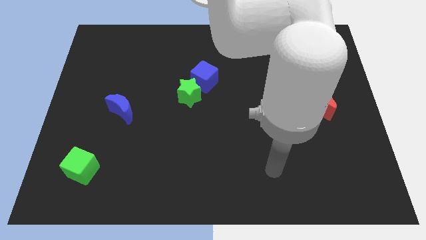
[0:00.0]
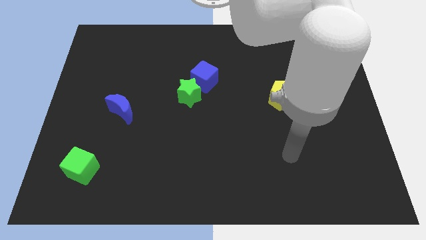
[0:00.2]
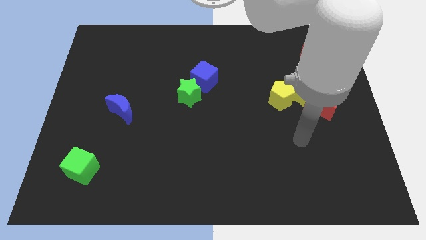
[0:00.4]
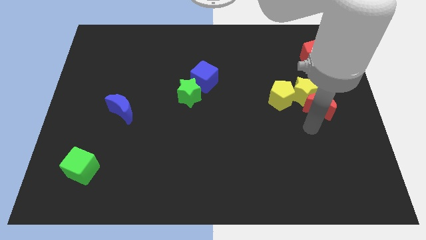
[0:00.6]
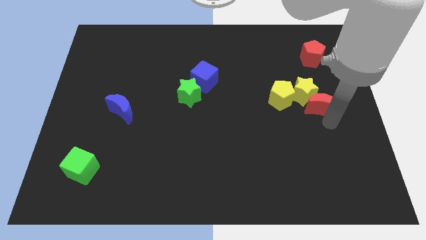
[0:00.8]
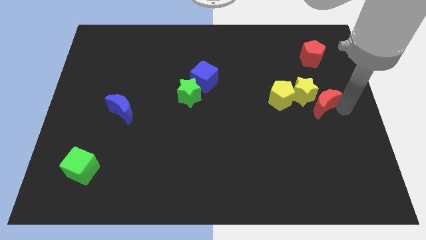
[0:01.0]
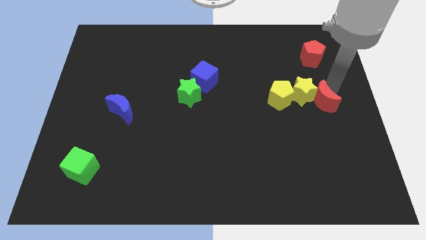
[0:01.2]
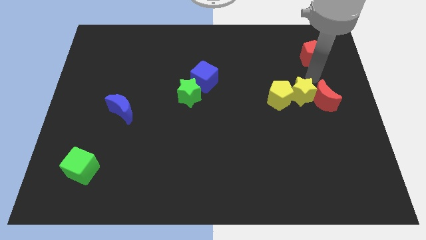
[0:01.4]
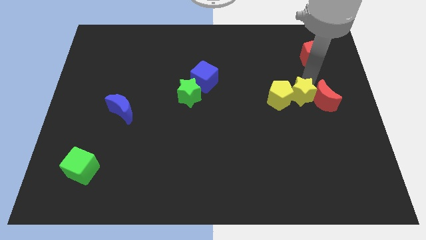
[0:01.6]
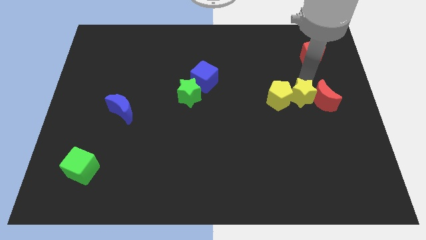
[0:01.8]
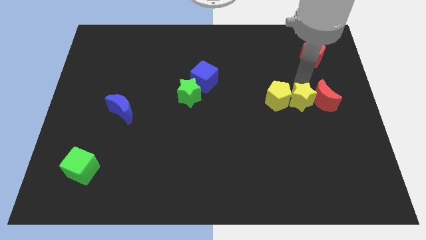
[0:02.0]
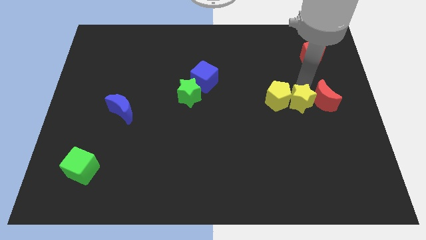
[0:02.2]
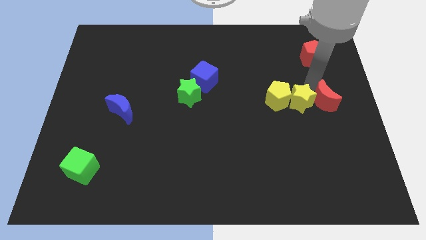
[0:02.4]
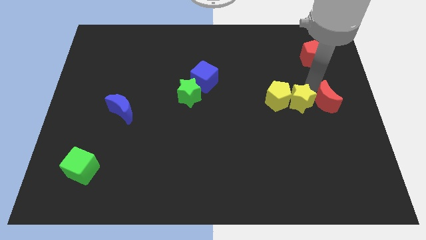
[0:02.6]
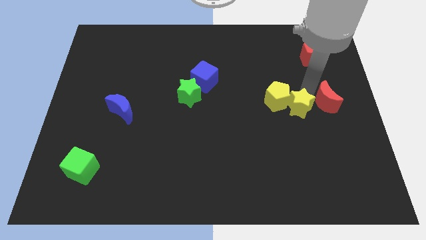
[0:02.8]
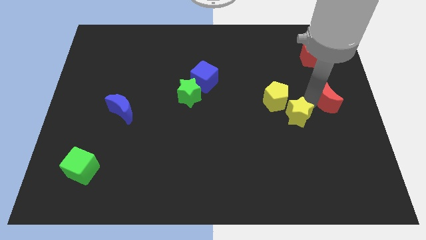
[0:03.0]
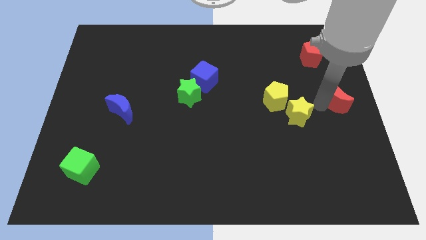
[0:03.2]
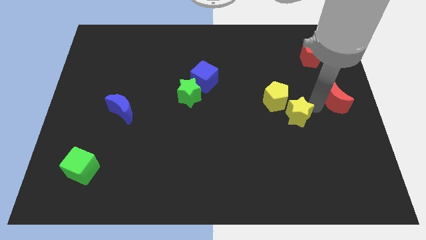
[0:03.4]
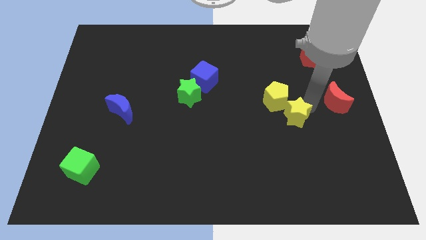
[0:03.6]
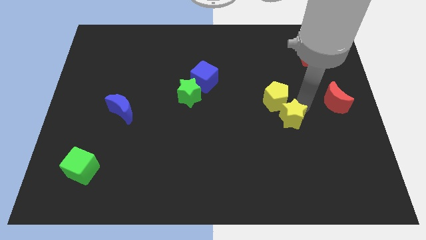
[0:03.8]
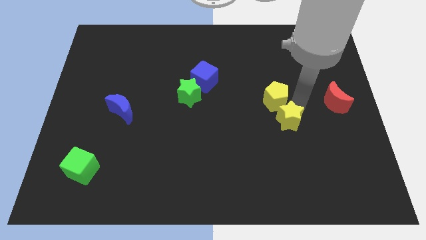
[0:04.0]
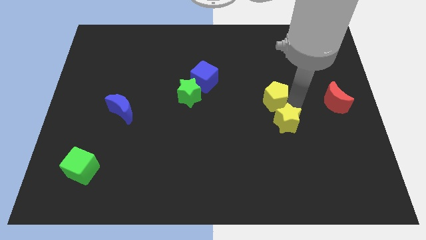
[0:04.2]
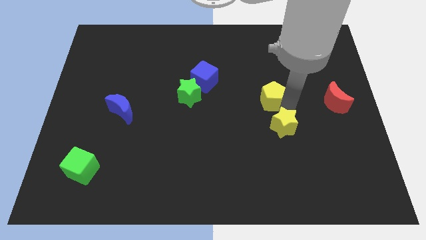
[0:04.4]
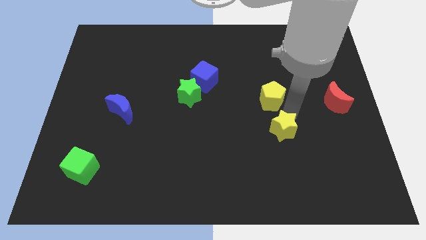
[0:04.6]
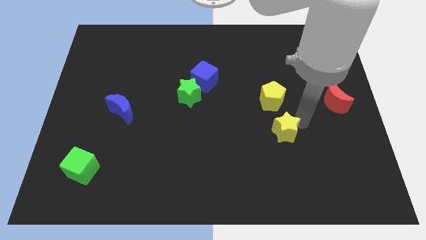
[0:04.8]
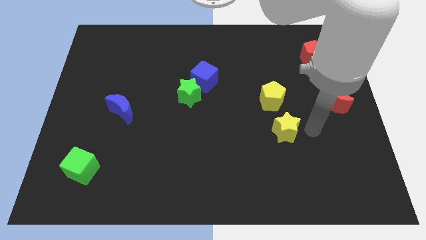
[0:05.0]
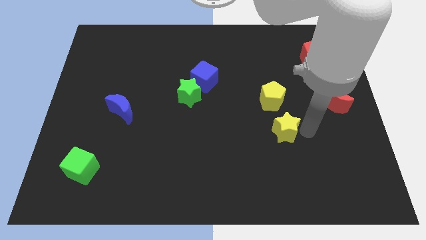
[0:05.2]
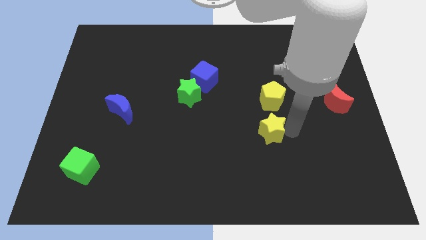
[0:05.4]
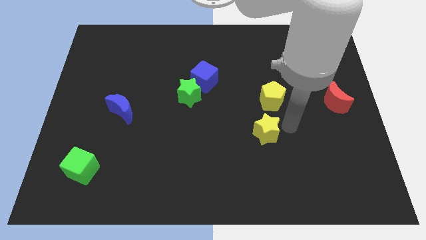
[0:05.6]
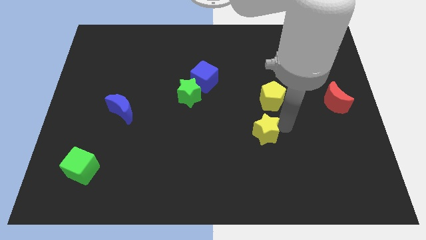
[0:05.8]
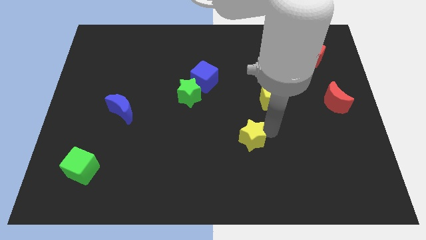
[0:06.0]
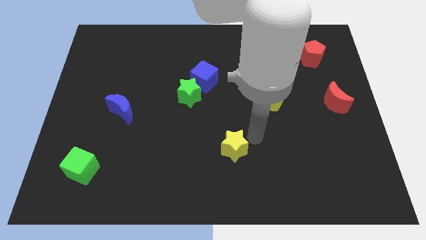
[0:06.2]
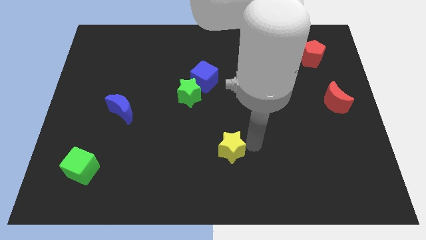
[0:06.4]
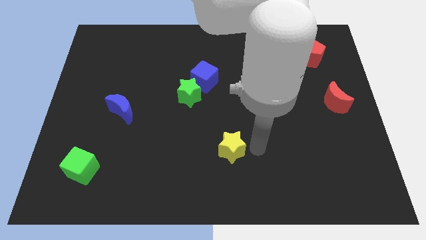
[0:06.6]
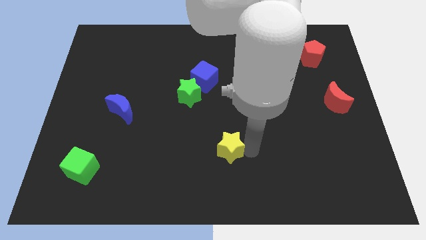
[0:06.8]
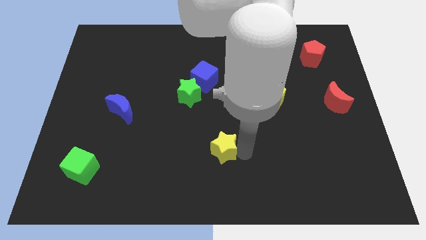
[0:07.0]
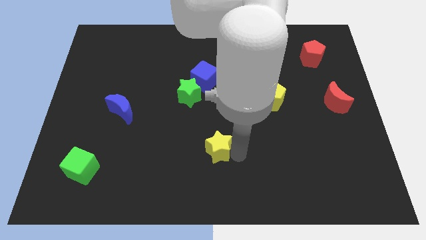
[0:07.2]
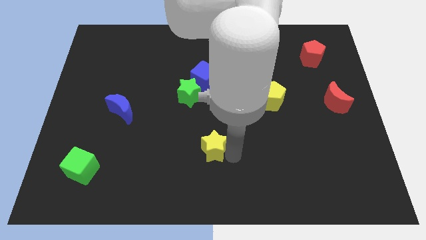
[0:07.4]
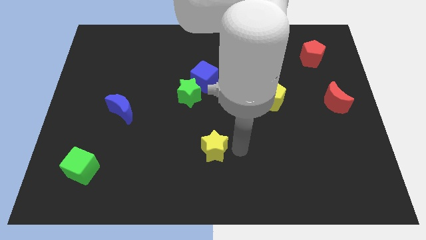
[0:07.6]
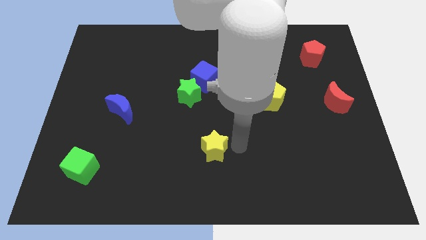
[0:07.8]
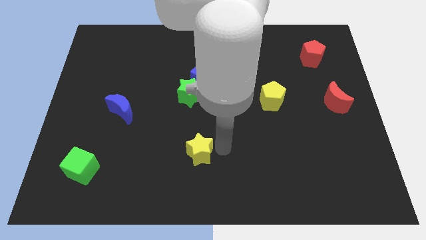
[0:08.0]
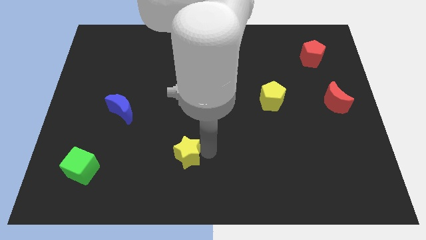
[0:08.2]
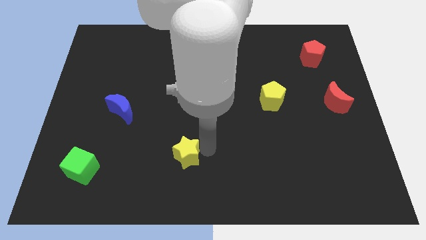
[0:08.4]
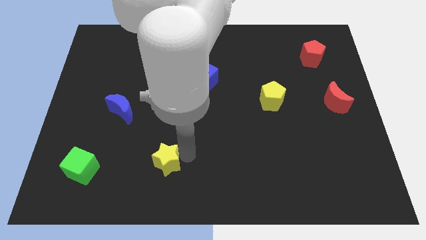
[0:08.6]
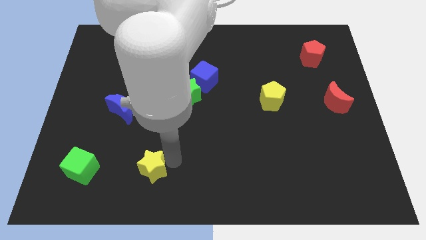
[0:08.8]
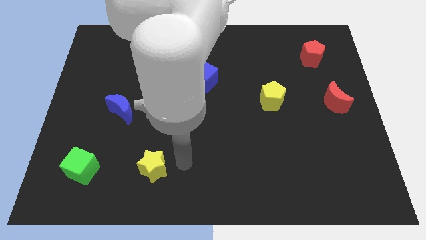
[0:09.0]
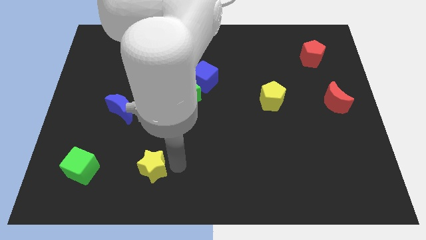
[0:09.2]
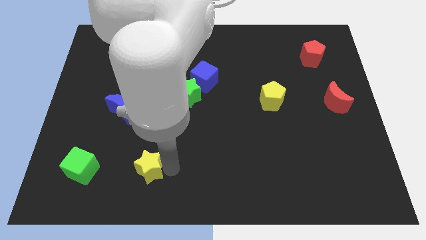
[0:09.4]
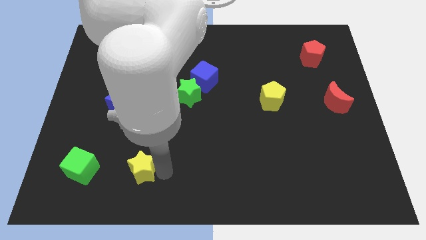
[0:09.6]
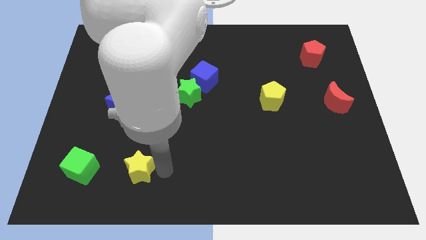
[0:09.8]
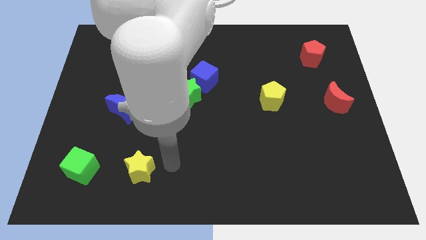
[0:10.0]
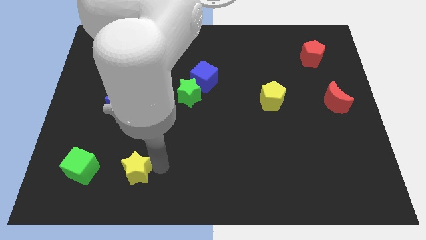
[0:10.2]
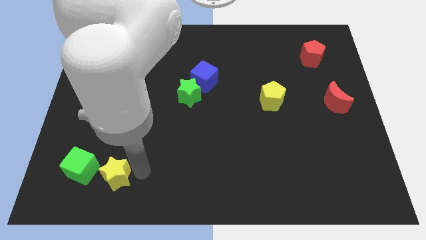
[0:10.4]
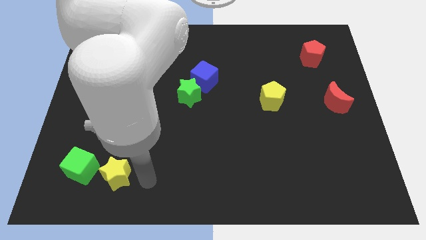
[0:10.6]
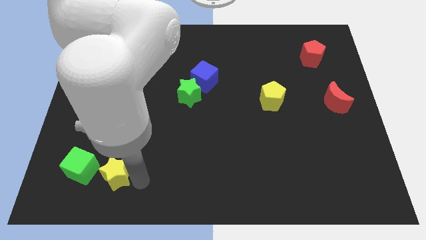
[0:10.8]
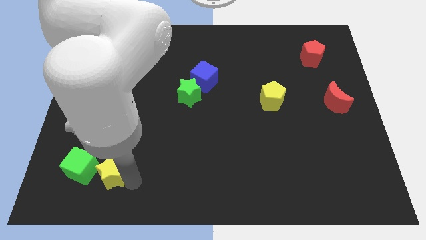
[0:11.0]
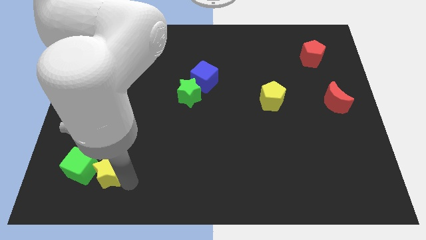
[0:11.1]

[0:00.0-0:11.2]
slide the yellow star towards the green cube

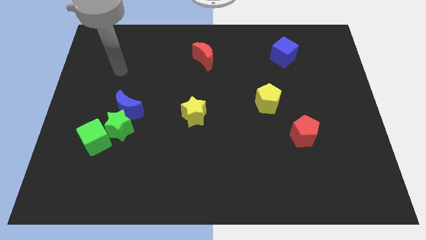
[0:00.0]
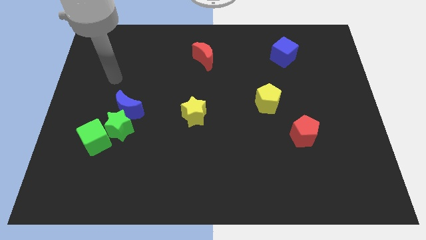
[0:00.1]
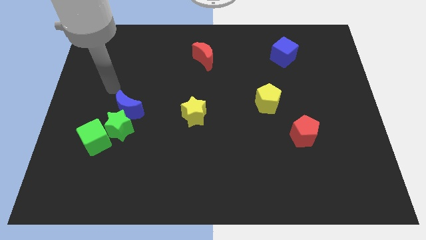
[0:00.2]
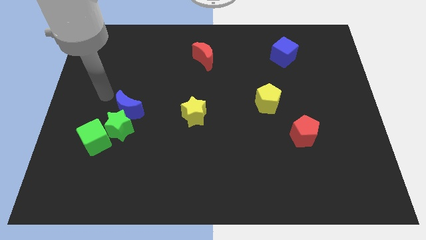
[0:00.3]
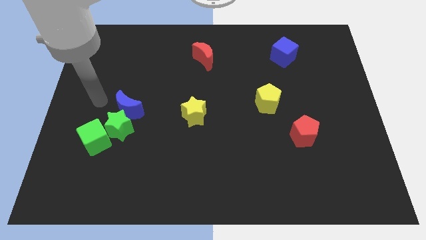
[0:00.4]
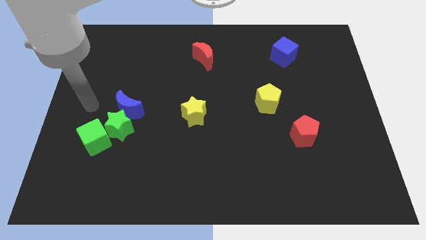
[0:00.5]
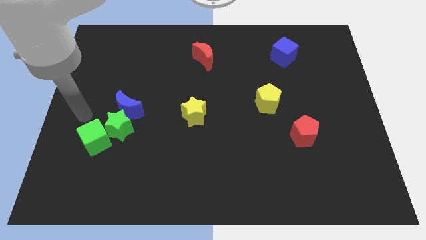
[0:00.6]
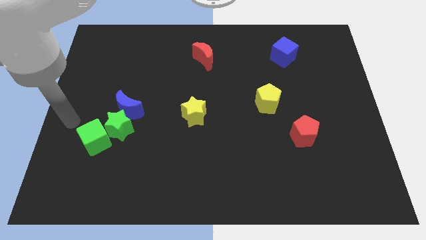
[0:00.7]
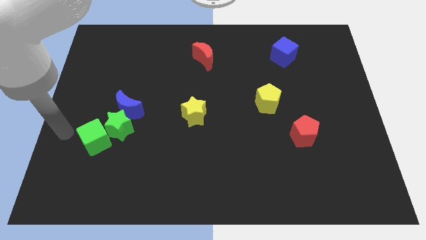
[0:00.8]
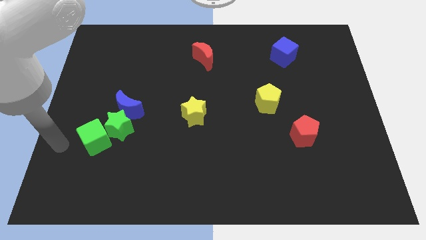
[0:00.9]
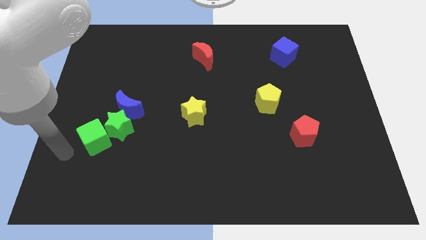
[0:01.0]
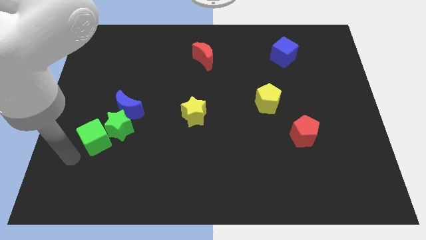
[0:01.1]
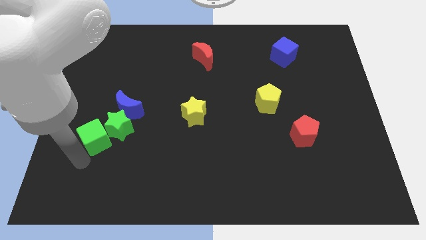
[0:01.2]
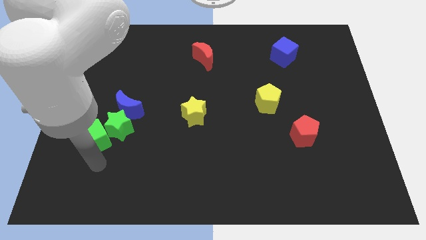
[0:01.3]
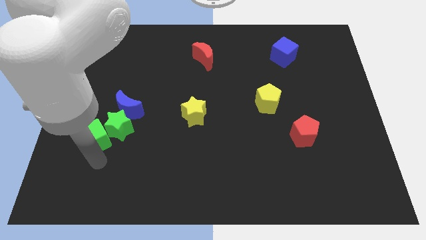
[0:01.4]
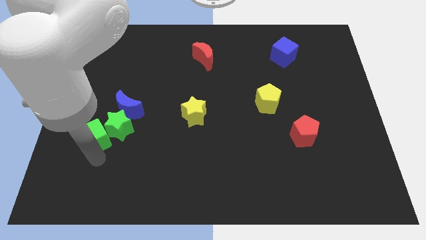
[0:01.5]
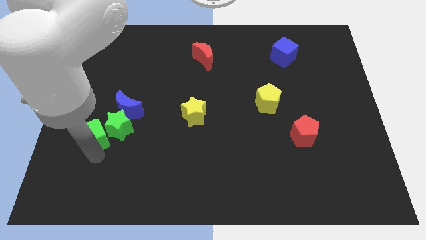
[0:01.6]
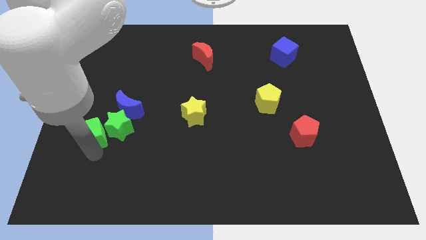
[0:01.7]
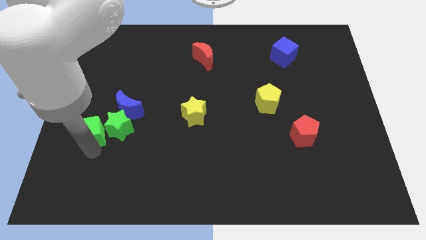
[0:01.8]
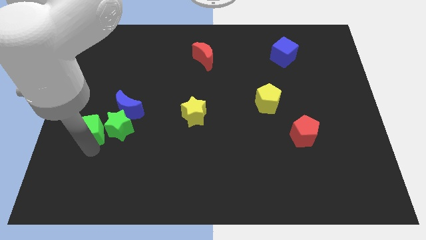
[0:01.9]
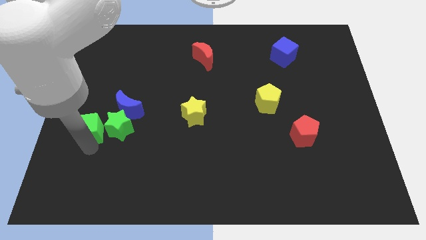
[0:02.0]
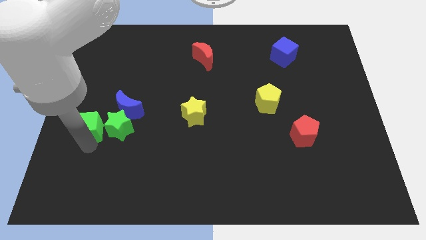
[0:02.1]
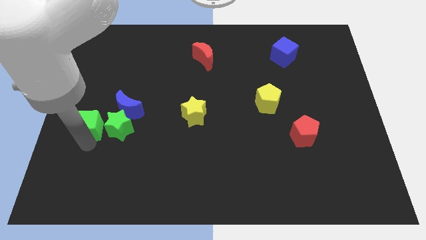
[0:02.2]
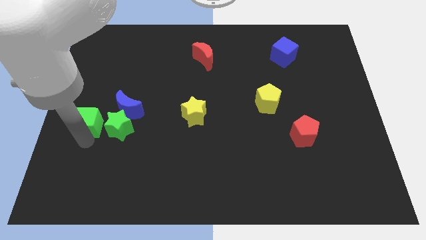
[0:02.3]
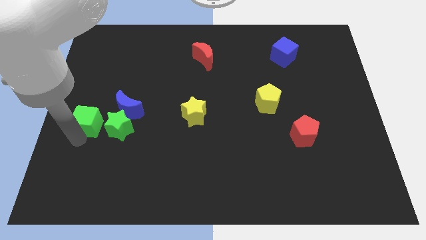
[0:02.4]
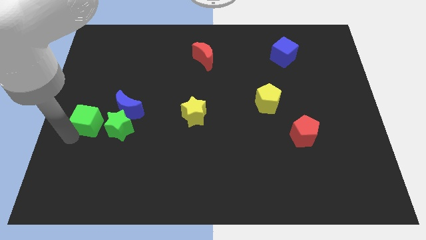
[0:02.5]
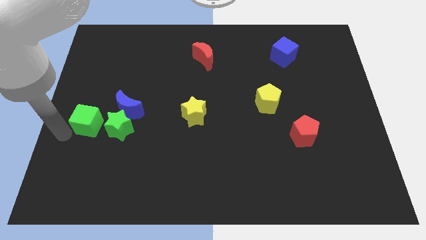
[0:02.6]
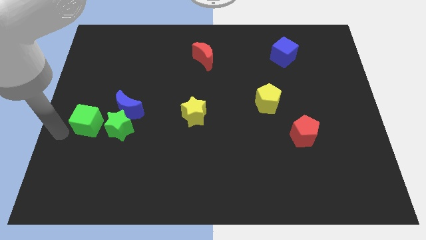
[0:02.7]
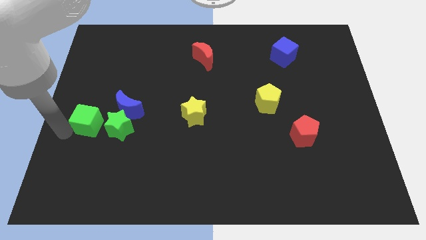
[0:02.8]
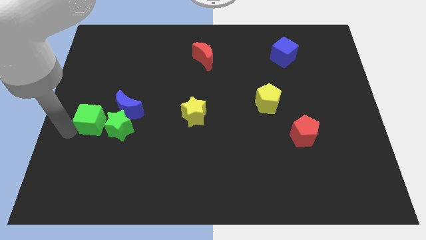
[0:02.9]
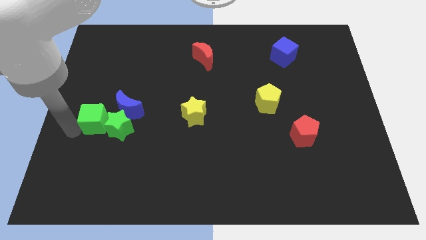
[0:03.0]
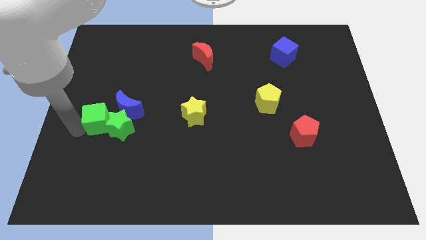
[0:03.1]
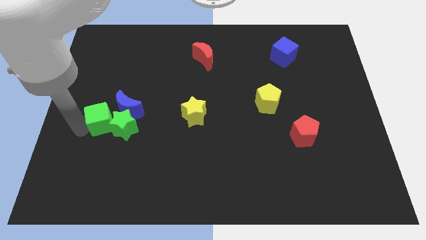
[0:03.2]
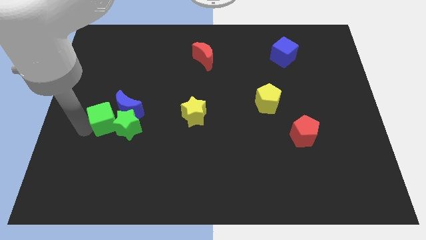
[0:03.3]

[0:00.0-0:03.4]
put the green cube next to the blue moon
